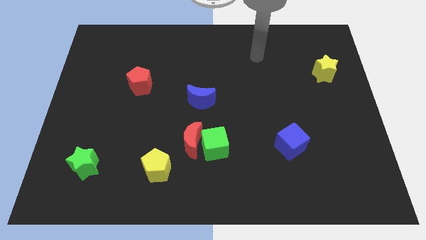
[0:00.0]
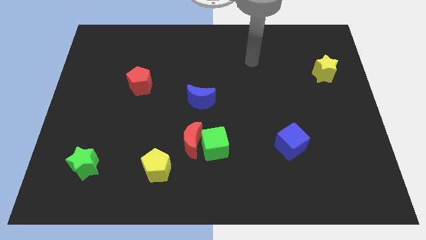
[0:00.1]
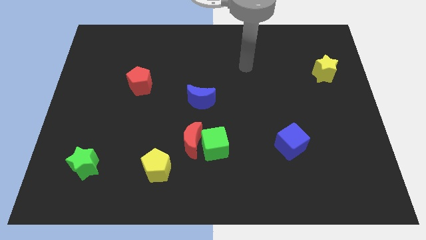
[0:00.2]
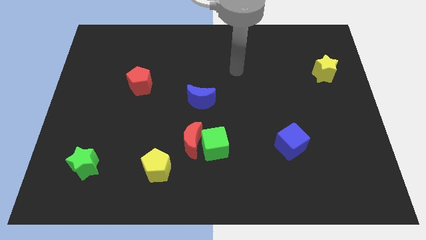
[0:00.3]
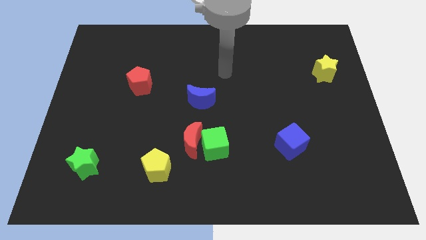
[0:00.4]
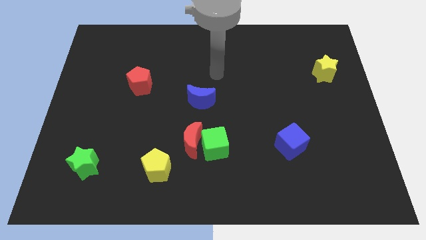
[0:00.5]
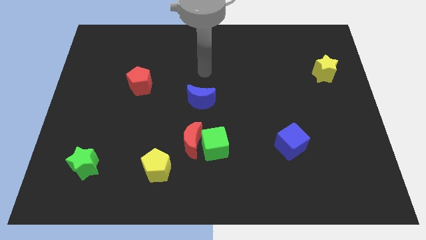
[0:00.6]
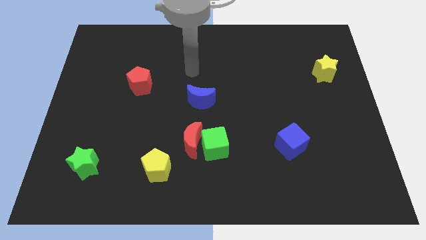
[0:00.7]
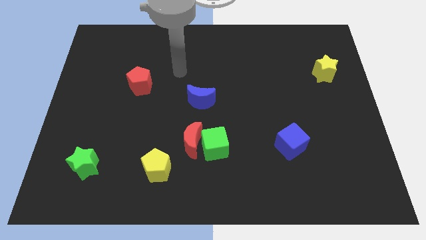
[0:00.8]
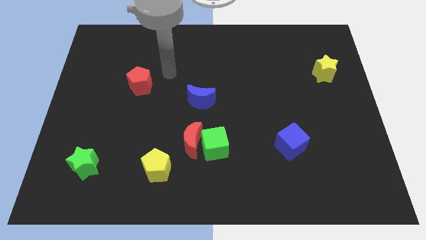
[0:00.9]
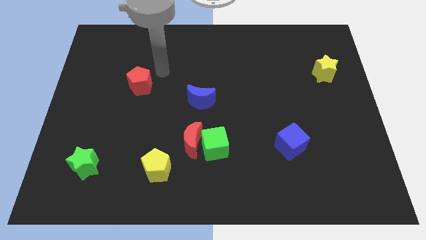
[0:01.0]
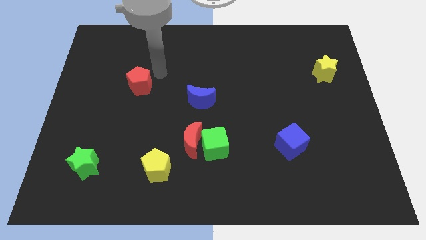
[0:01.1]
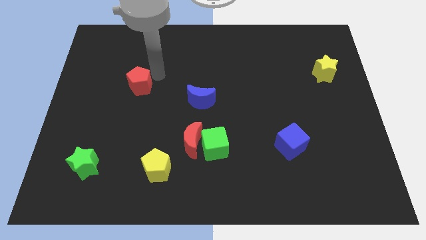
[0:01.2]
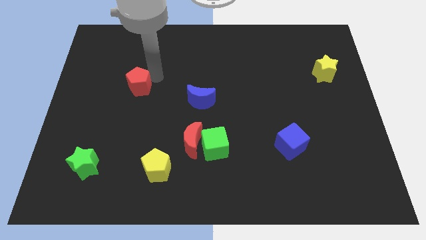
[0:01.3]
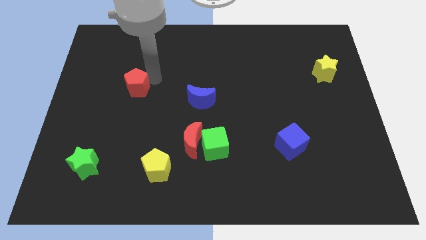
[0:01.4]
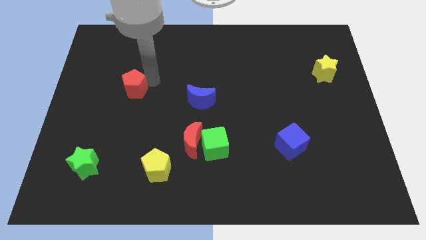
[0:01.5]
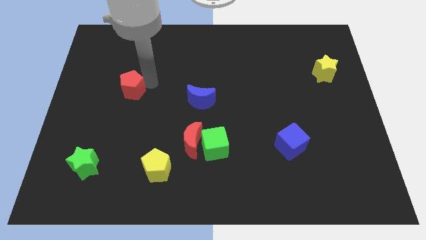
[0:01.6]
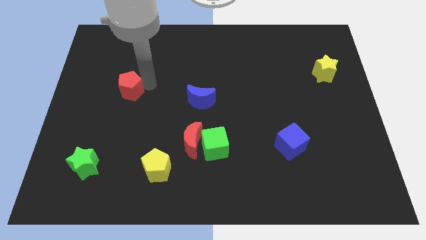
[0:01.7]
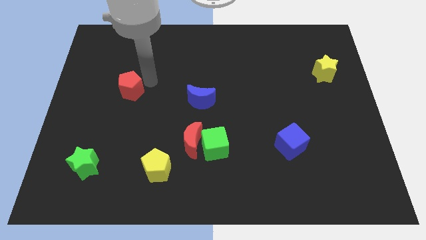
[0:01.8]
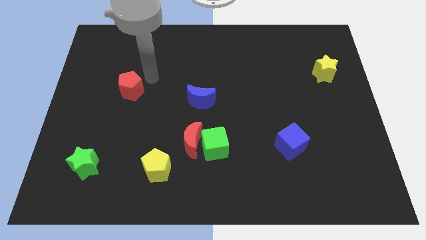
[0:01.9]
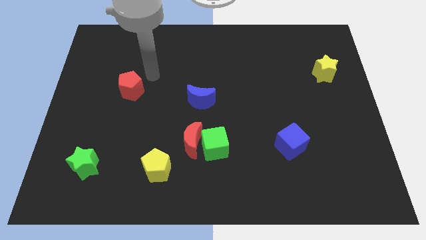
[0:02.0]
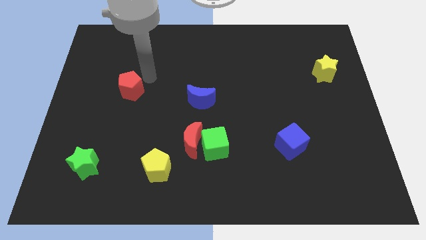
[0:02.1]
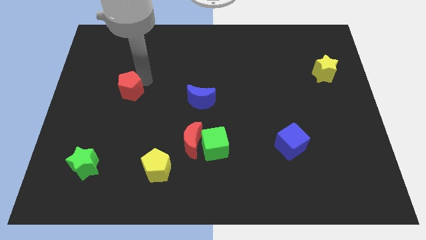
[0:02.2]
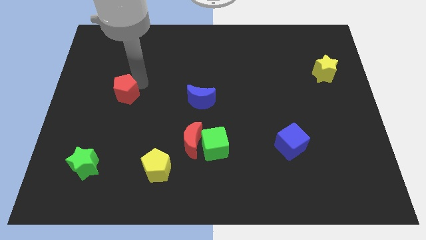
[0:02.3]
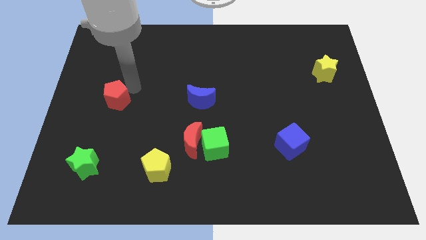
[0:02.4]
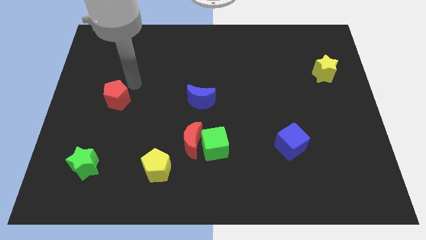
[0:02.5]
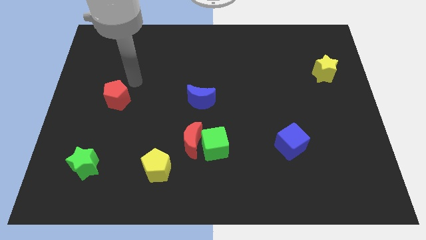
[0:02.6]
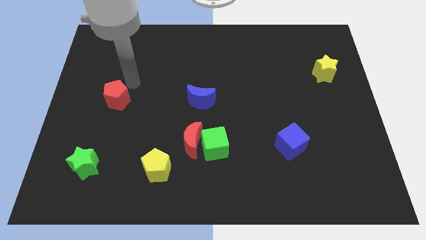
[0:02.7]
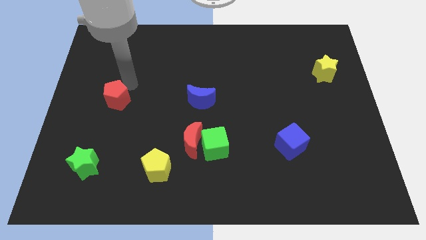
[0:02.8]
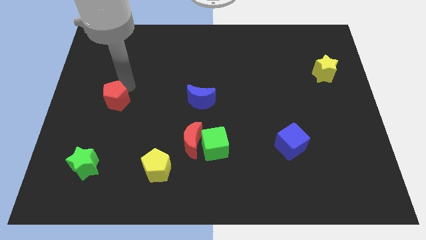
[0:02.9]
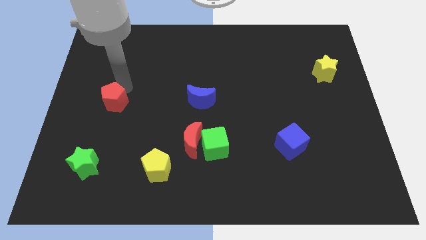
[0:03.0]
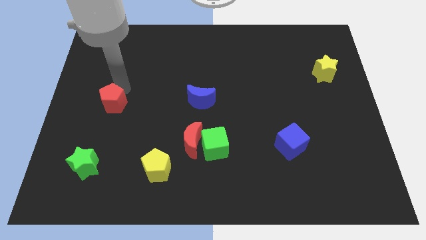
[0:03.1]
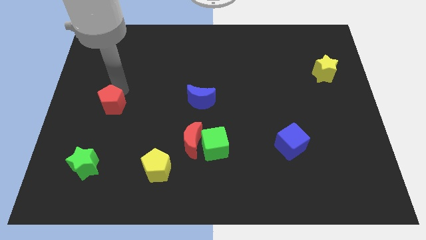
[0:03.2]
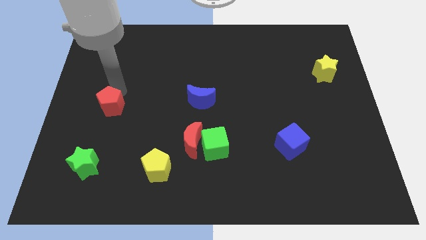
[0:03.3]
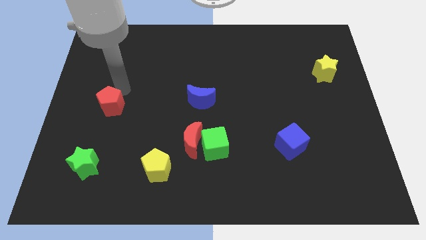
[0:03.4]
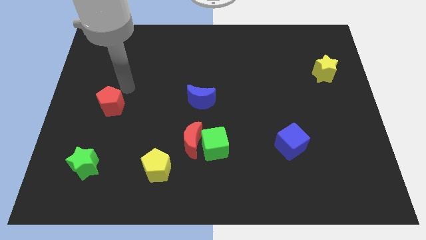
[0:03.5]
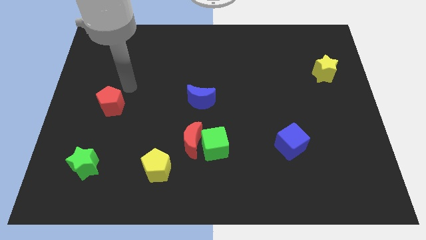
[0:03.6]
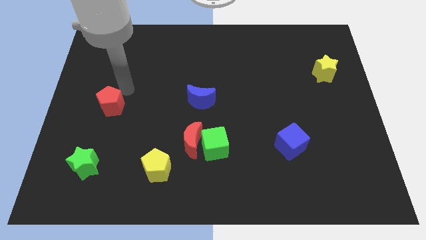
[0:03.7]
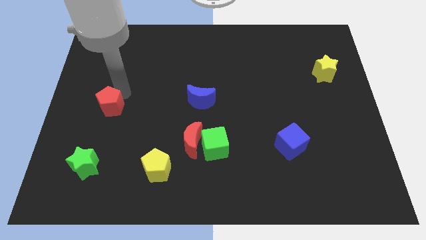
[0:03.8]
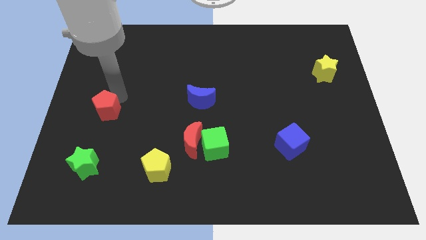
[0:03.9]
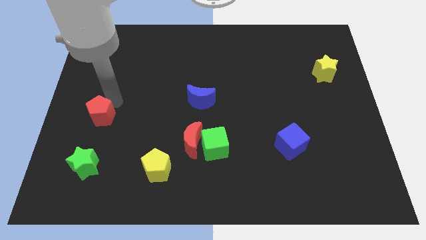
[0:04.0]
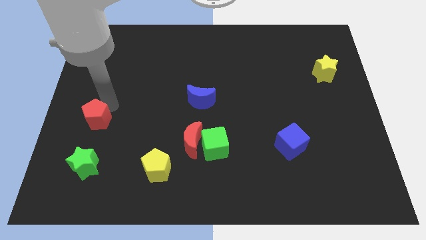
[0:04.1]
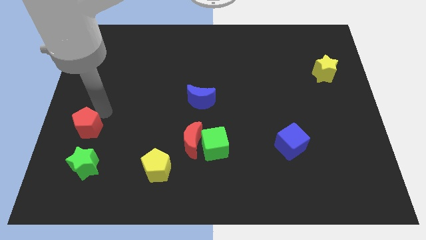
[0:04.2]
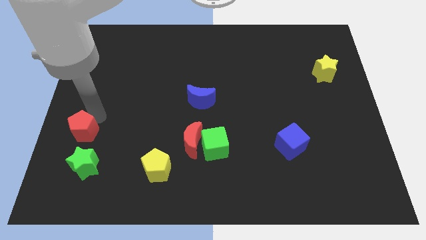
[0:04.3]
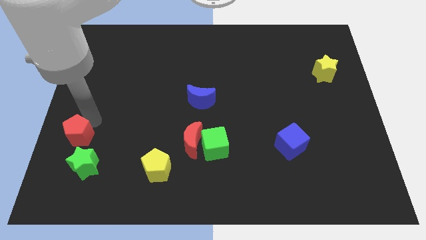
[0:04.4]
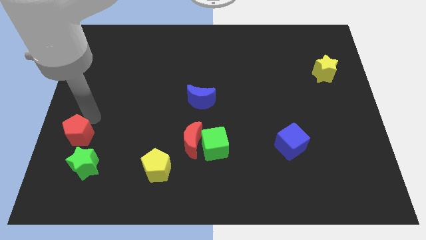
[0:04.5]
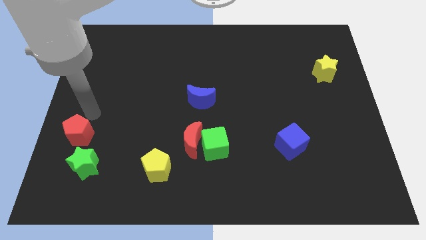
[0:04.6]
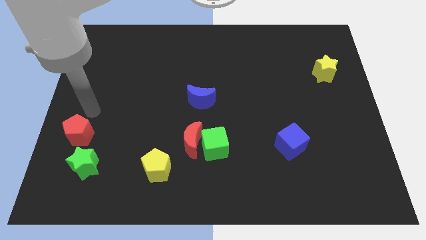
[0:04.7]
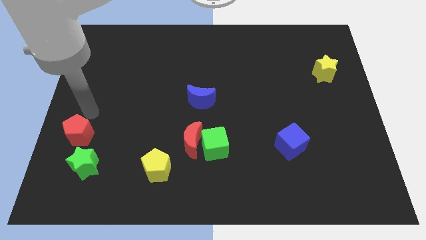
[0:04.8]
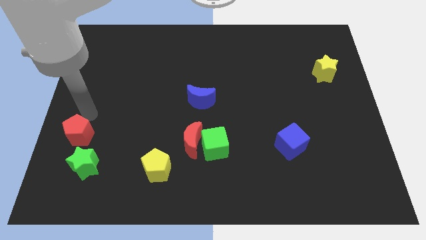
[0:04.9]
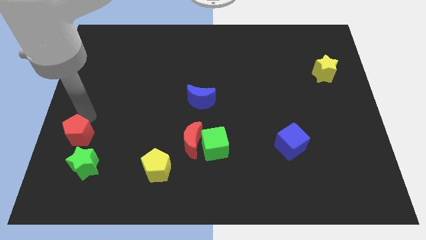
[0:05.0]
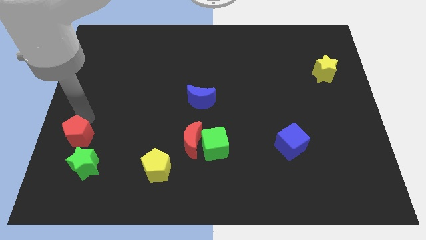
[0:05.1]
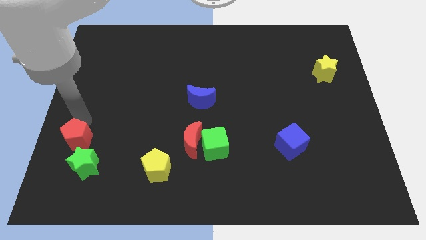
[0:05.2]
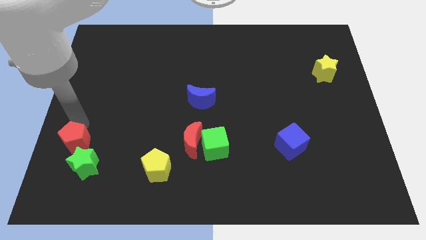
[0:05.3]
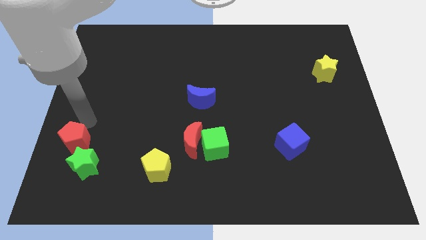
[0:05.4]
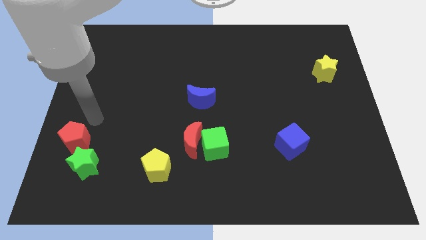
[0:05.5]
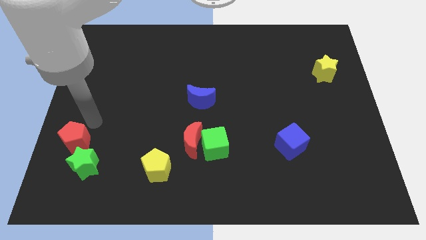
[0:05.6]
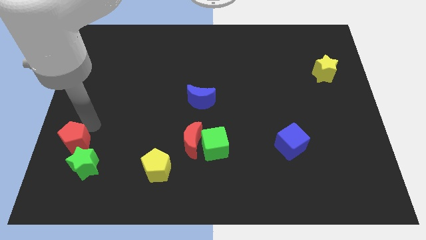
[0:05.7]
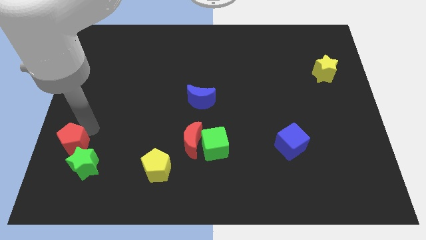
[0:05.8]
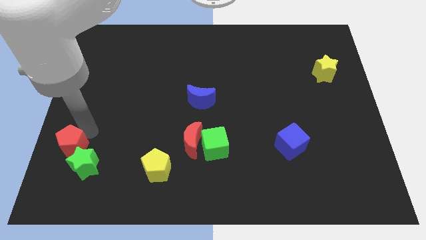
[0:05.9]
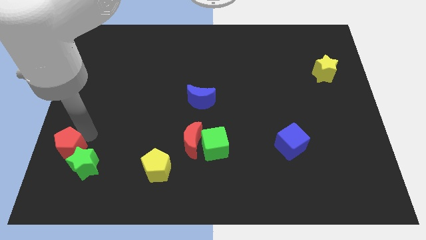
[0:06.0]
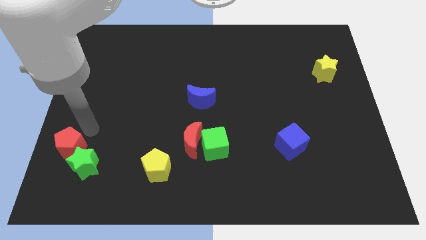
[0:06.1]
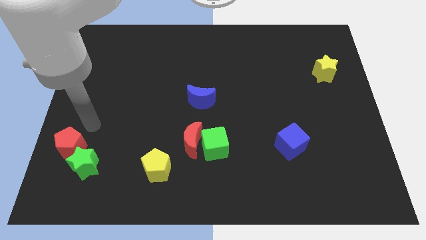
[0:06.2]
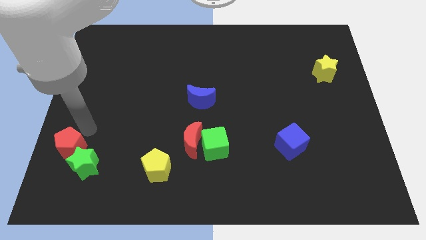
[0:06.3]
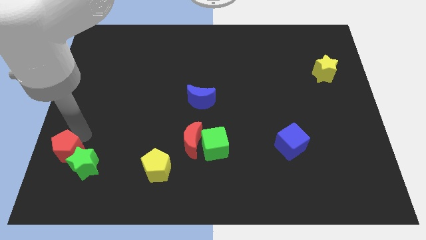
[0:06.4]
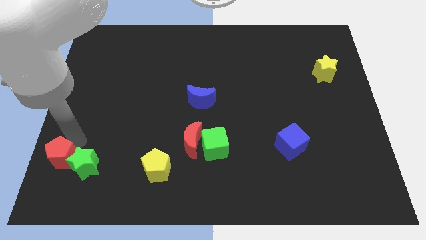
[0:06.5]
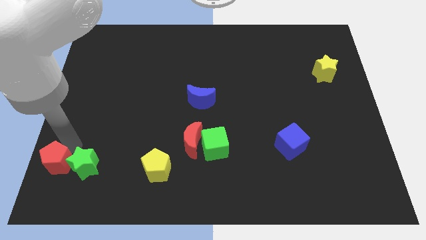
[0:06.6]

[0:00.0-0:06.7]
push the red pentagon to the lower left corner
